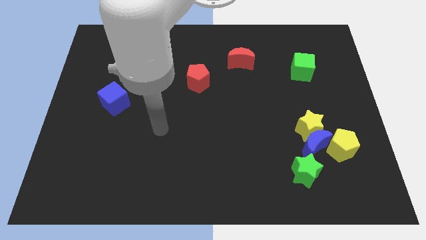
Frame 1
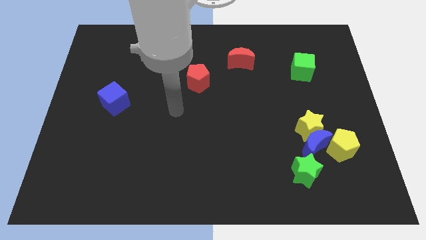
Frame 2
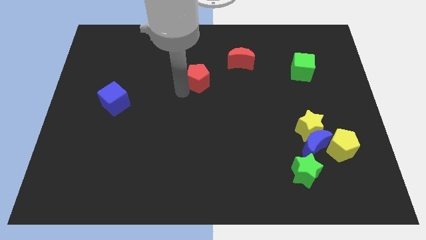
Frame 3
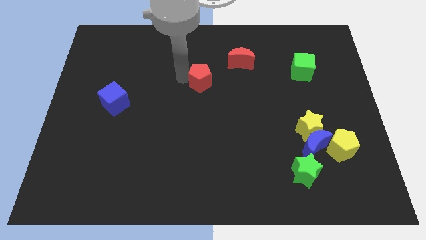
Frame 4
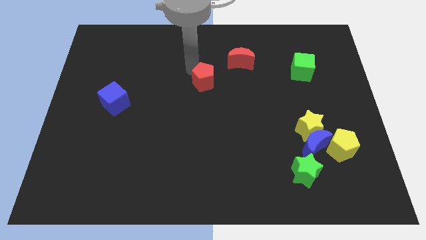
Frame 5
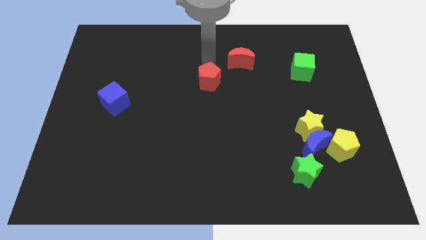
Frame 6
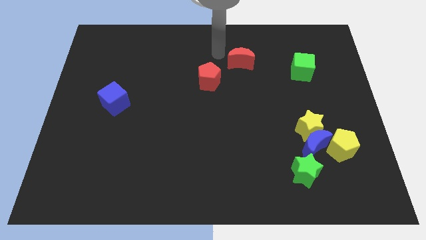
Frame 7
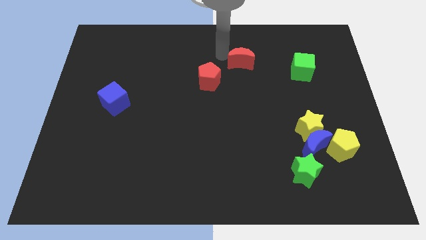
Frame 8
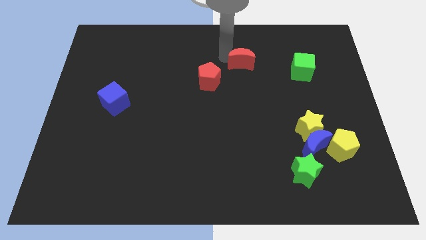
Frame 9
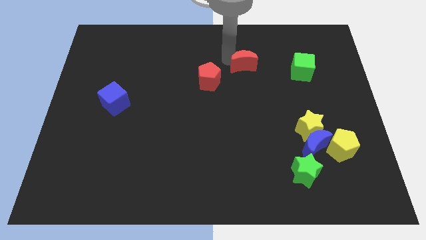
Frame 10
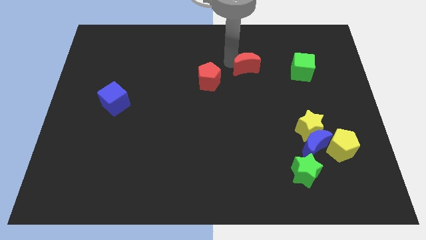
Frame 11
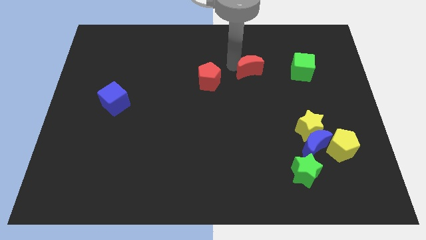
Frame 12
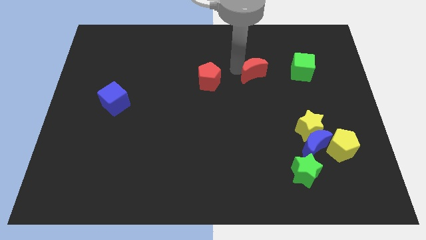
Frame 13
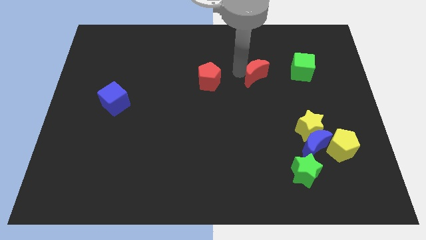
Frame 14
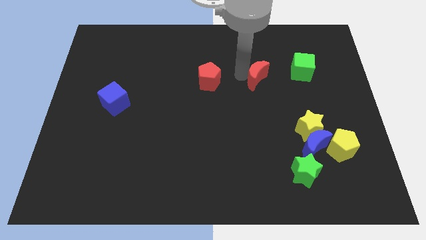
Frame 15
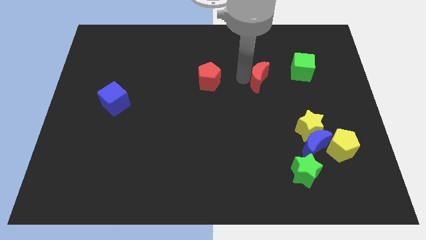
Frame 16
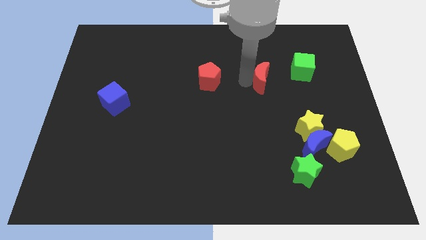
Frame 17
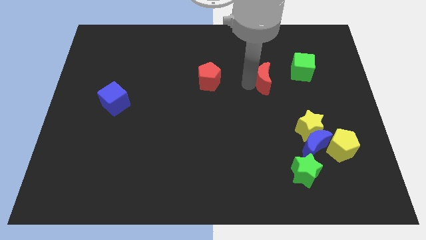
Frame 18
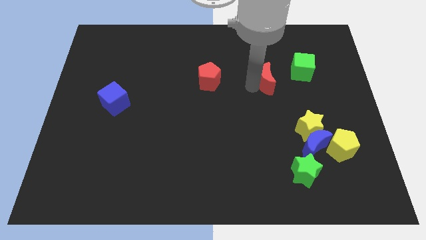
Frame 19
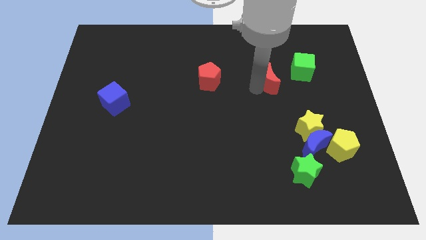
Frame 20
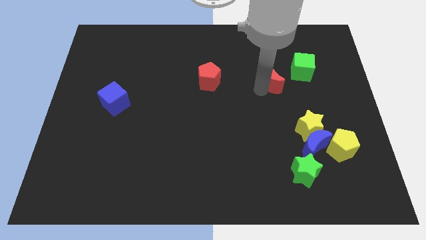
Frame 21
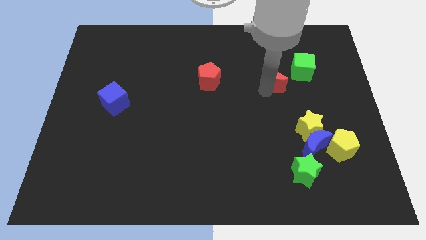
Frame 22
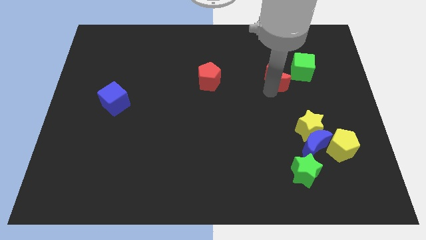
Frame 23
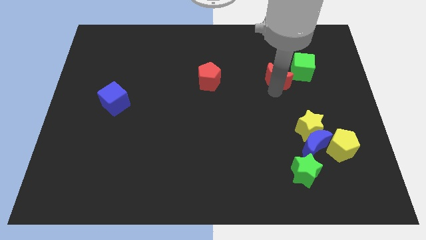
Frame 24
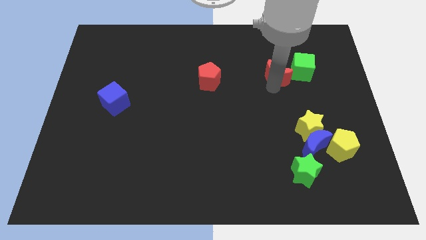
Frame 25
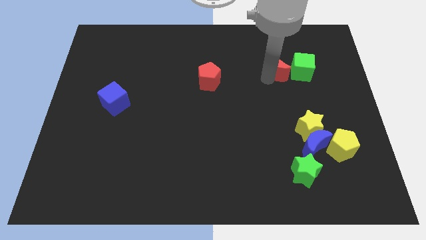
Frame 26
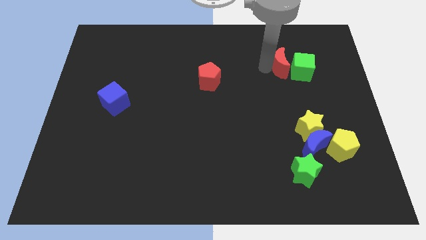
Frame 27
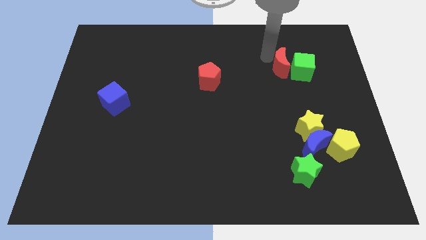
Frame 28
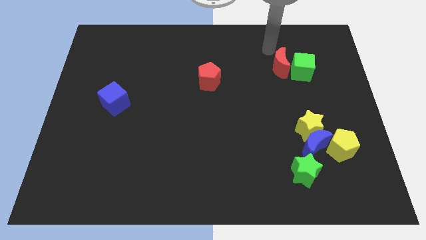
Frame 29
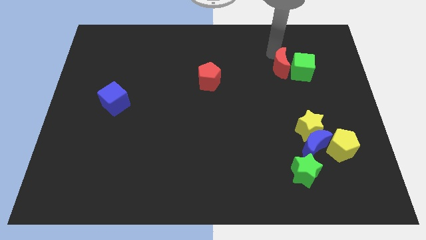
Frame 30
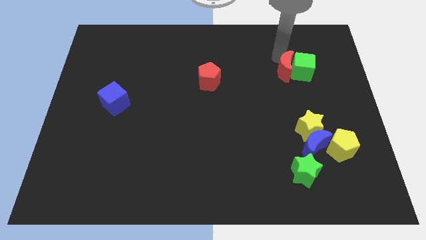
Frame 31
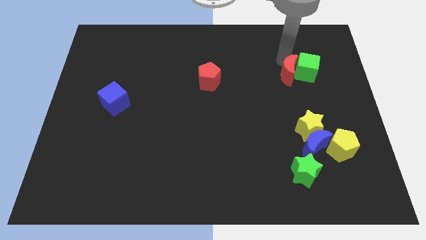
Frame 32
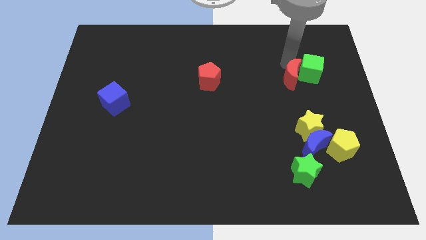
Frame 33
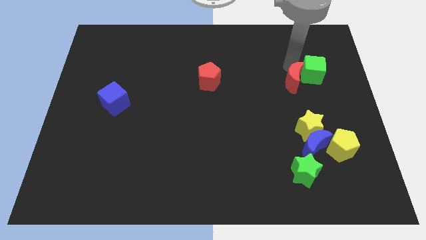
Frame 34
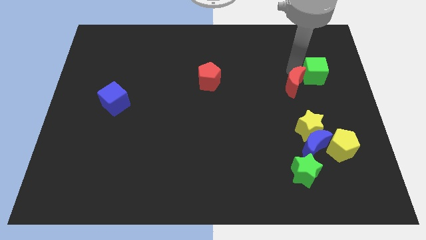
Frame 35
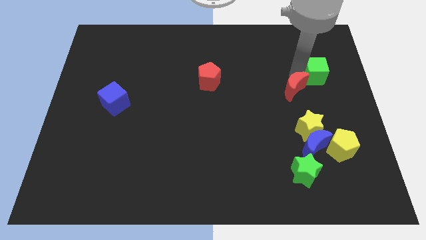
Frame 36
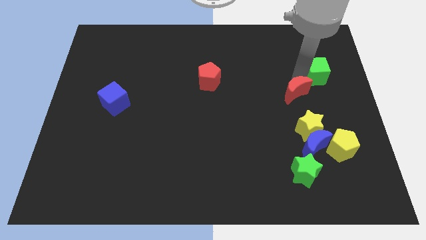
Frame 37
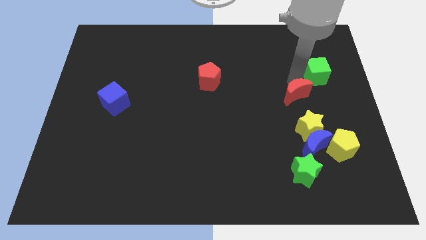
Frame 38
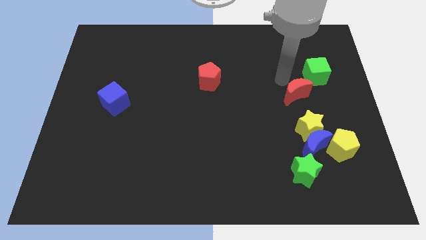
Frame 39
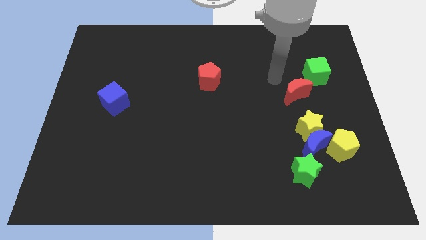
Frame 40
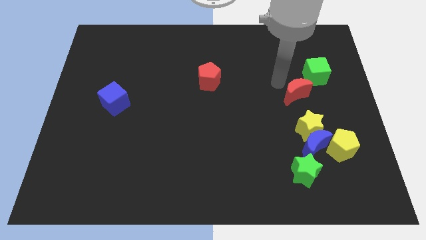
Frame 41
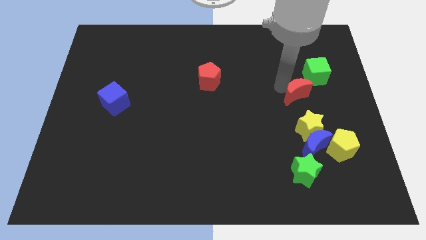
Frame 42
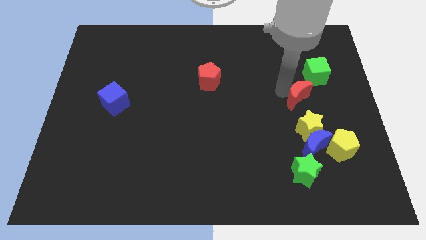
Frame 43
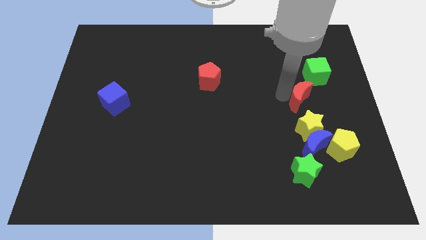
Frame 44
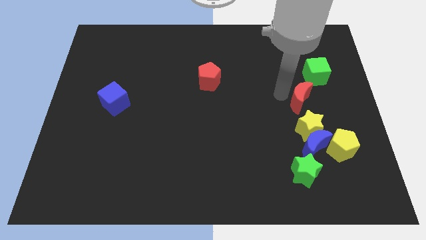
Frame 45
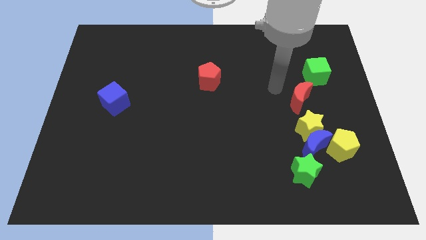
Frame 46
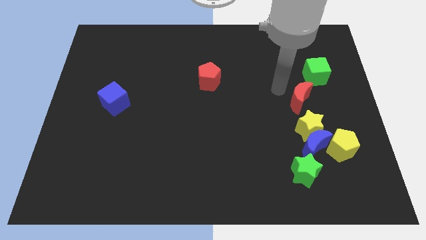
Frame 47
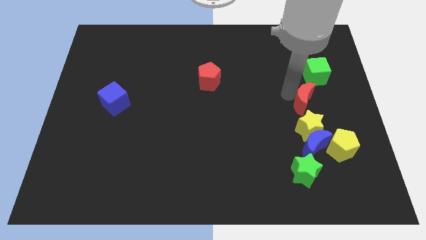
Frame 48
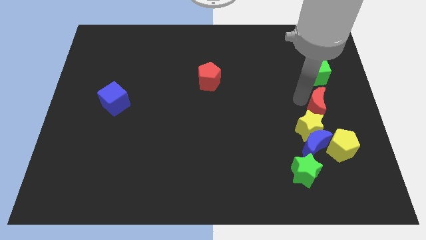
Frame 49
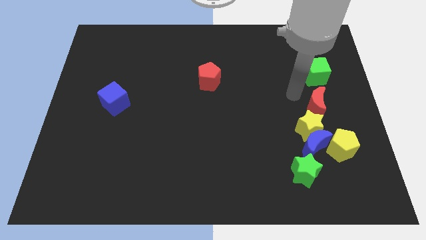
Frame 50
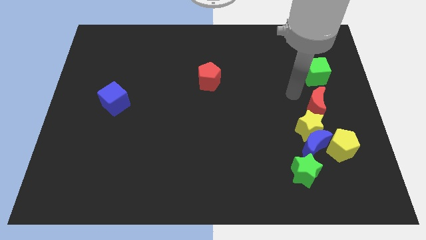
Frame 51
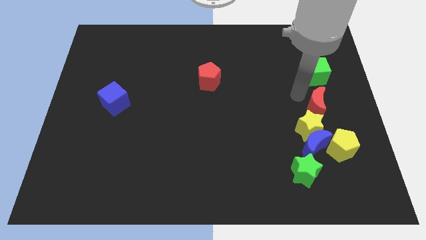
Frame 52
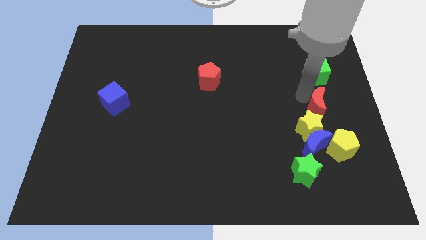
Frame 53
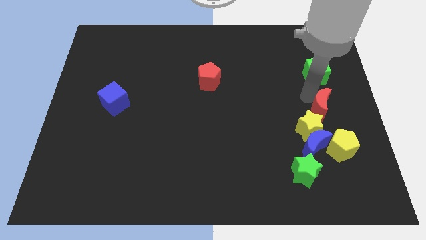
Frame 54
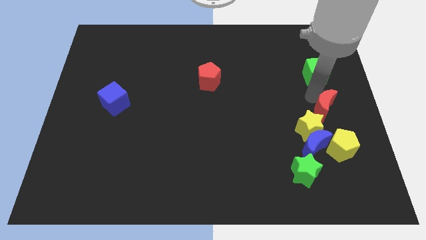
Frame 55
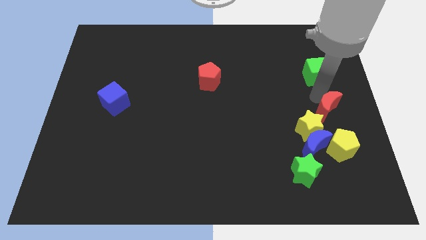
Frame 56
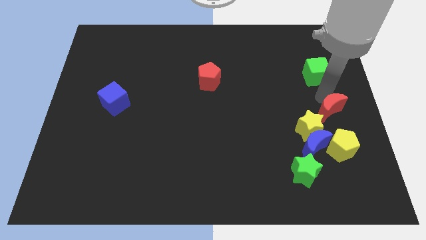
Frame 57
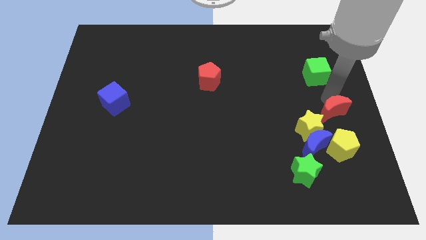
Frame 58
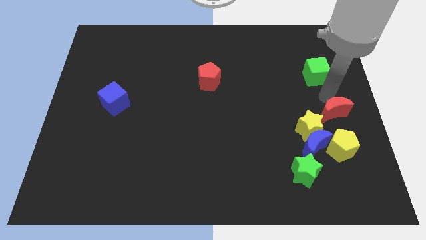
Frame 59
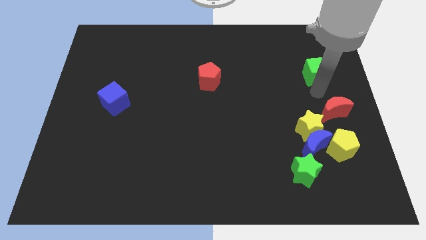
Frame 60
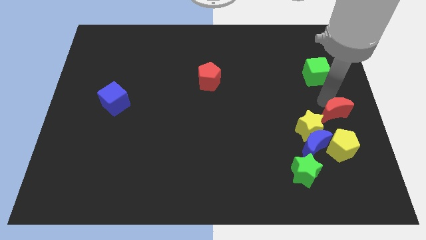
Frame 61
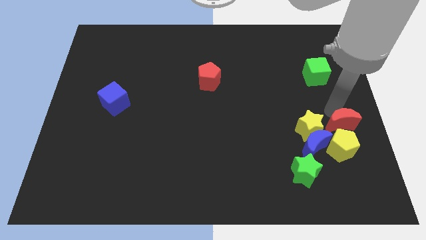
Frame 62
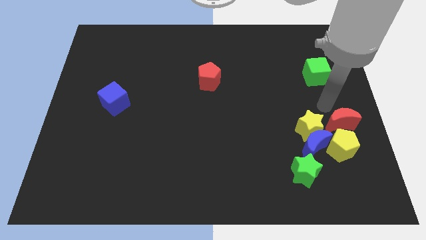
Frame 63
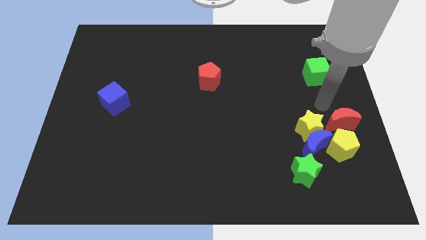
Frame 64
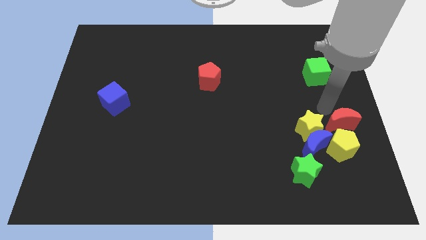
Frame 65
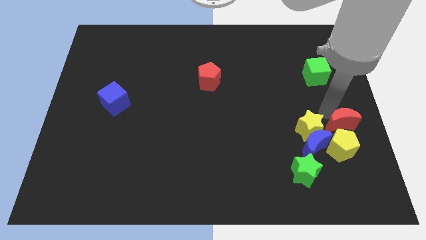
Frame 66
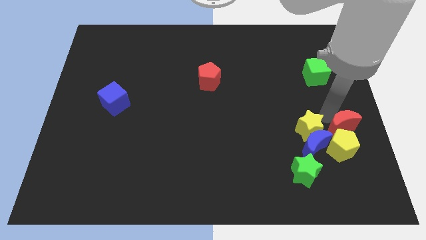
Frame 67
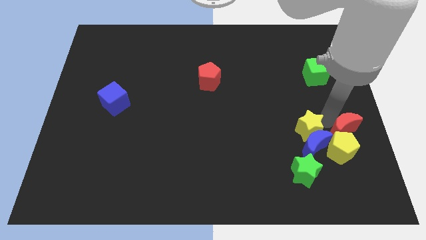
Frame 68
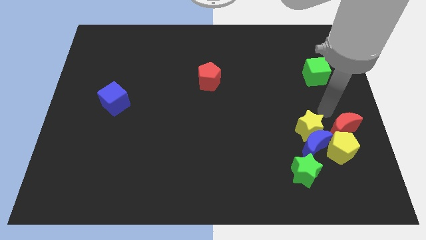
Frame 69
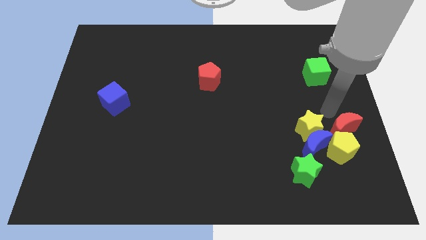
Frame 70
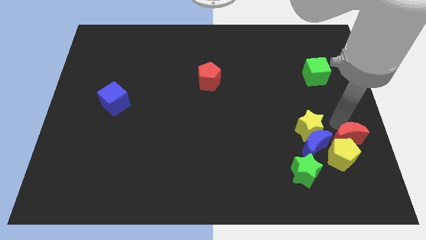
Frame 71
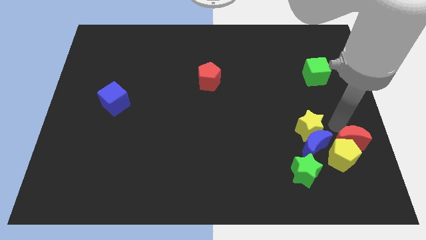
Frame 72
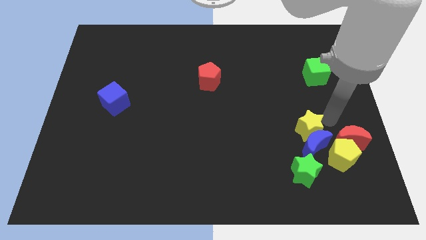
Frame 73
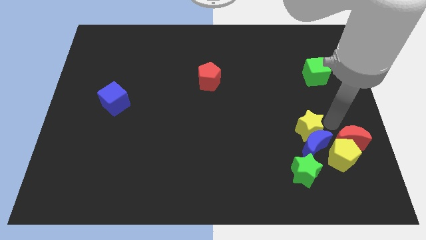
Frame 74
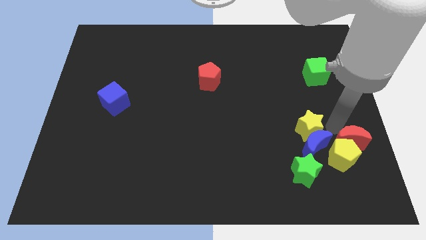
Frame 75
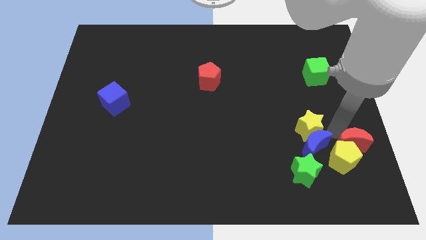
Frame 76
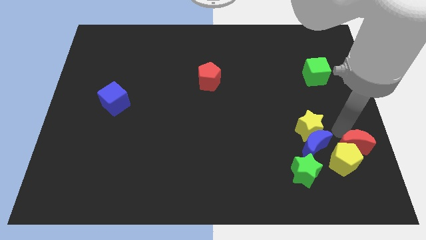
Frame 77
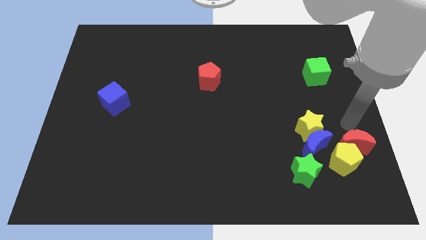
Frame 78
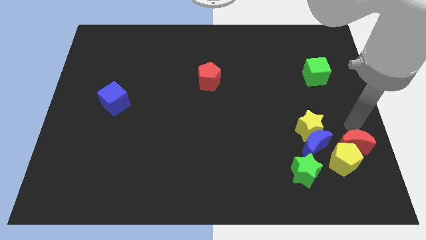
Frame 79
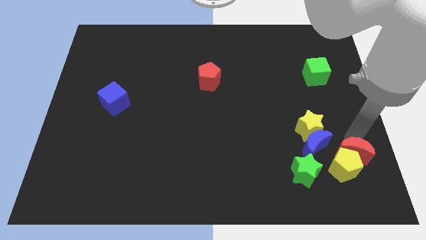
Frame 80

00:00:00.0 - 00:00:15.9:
move the red moon to the right side of the green star
